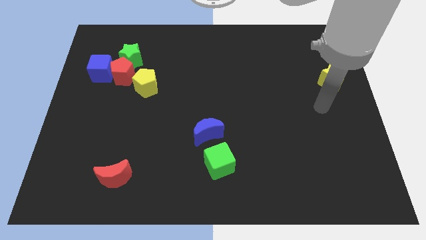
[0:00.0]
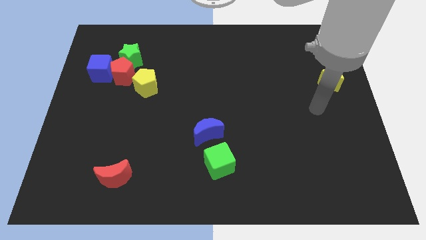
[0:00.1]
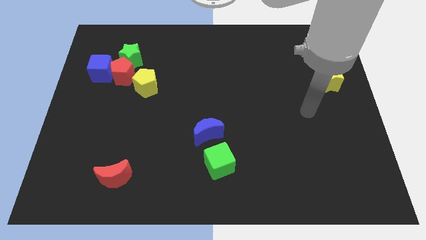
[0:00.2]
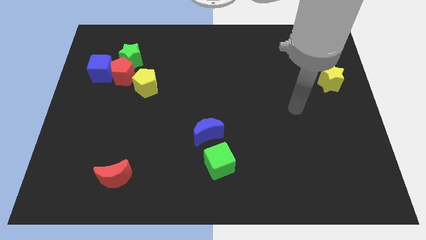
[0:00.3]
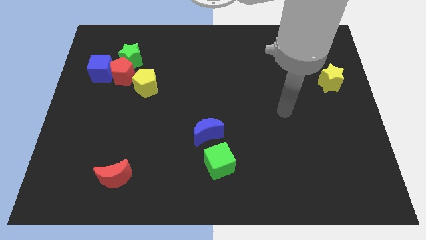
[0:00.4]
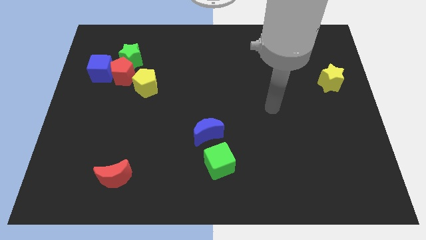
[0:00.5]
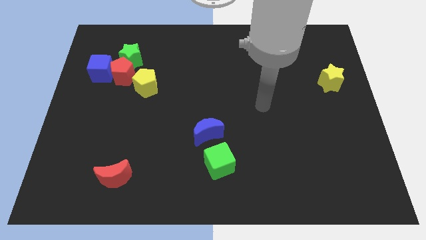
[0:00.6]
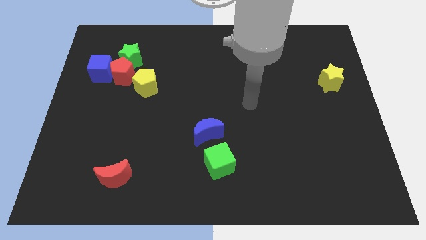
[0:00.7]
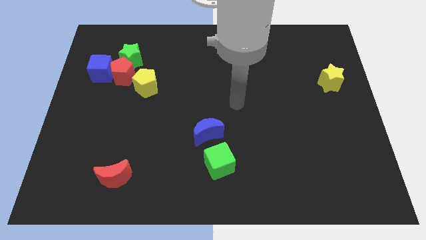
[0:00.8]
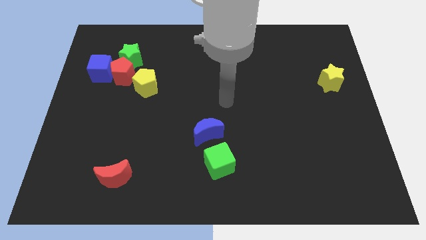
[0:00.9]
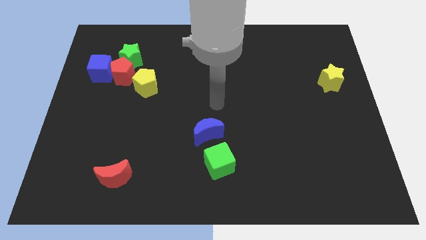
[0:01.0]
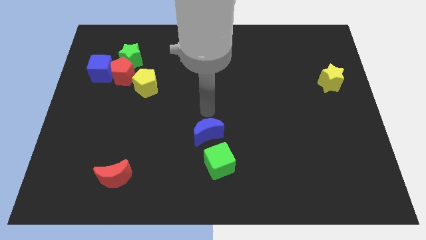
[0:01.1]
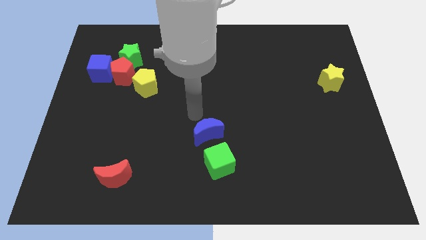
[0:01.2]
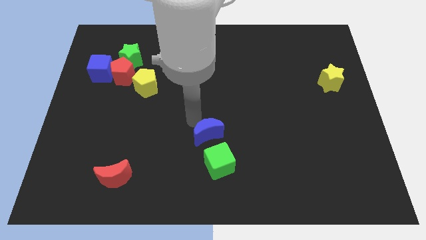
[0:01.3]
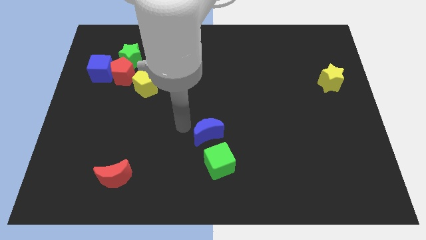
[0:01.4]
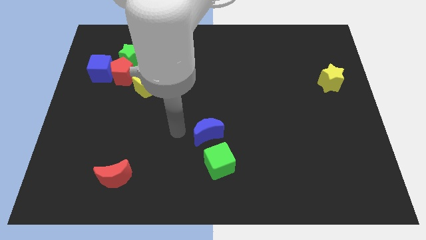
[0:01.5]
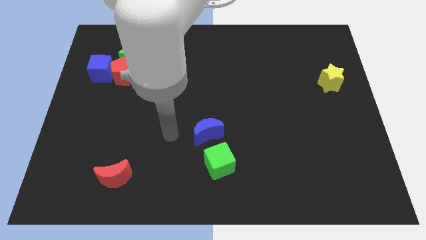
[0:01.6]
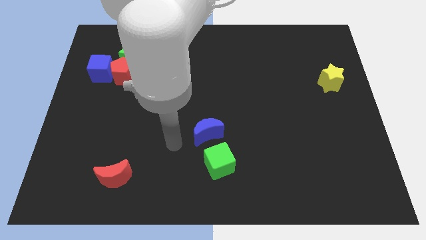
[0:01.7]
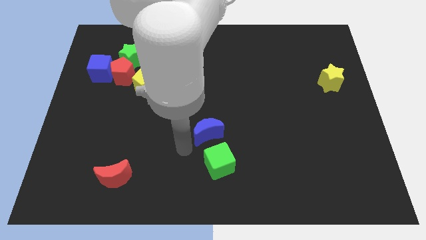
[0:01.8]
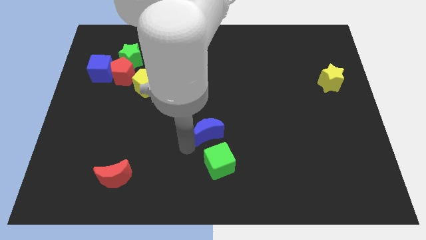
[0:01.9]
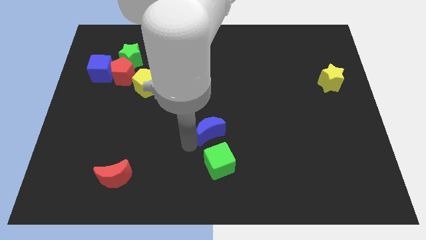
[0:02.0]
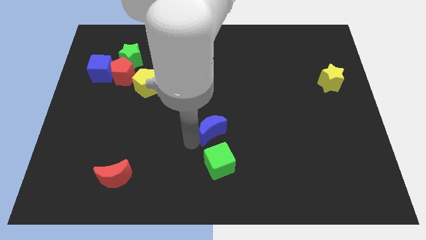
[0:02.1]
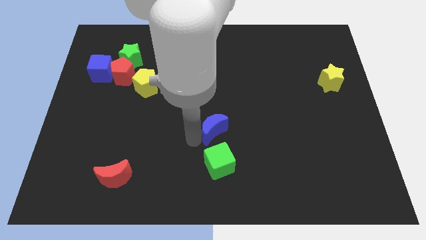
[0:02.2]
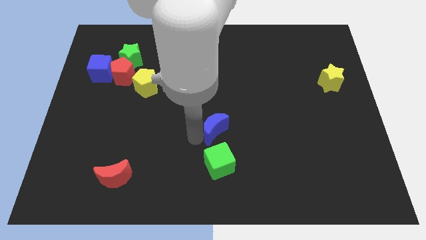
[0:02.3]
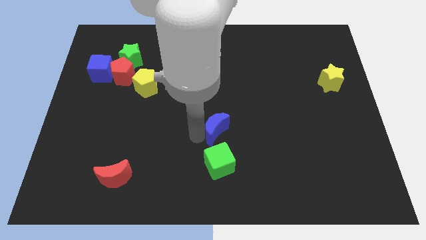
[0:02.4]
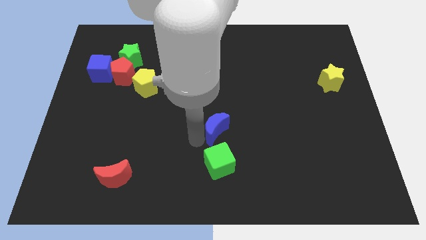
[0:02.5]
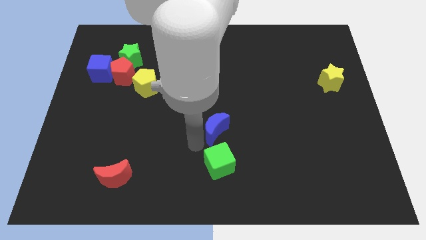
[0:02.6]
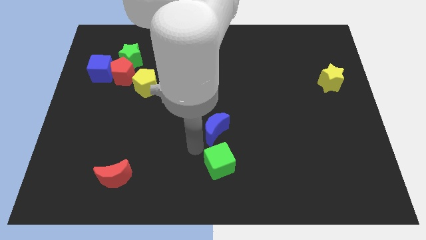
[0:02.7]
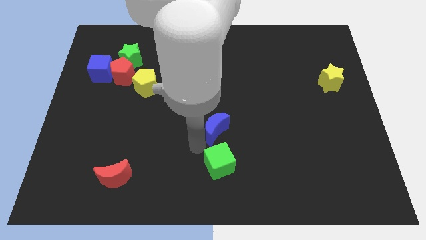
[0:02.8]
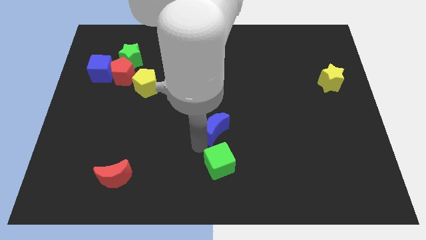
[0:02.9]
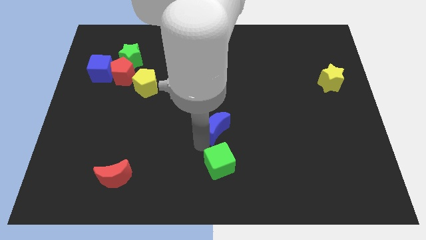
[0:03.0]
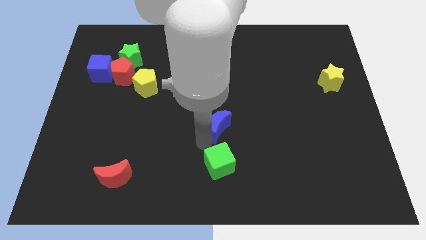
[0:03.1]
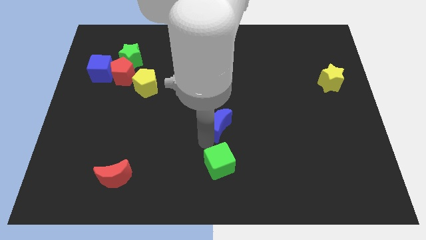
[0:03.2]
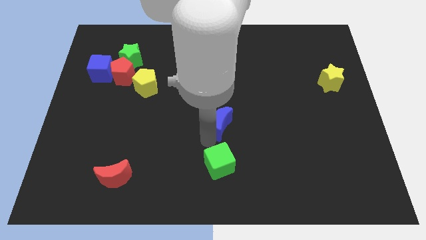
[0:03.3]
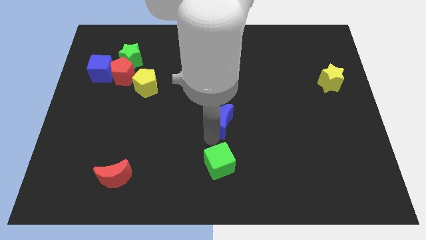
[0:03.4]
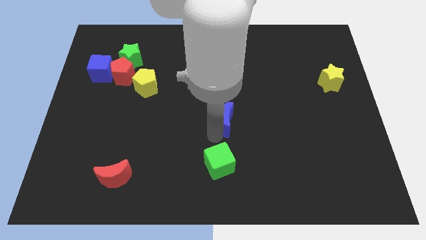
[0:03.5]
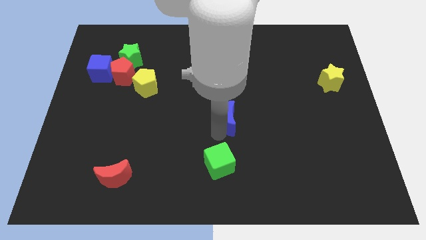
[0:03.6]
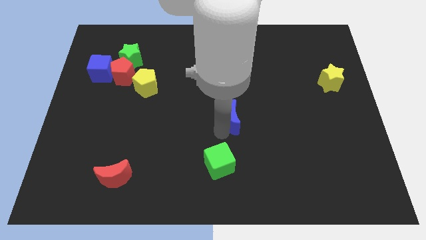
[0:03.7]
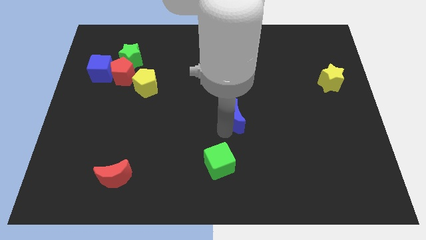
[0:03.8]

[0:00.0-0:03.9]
push the blue moon diagonally upwards and to the right a little bit

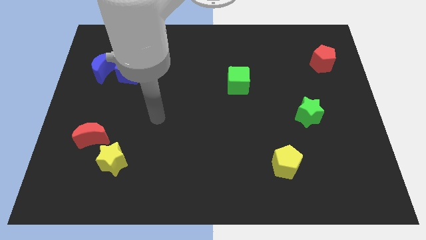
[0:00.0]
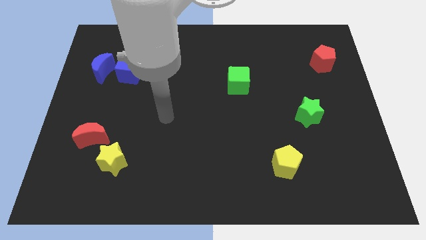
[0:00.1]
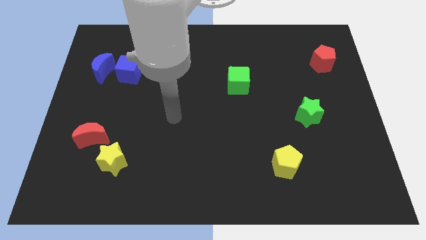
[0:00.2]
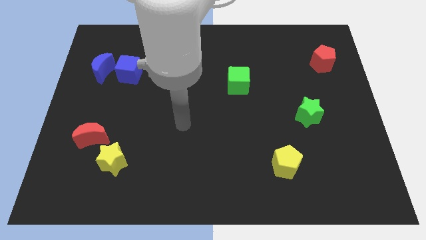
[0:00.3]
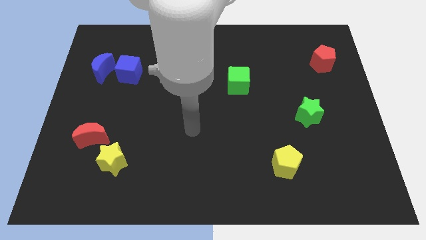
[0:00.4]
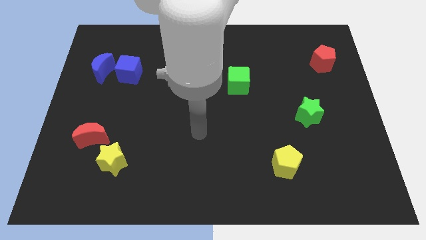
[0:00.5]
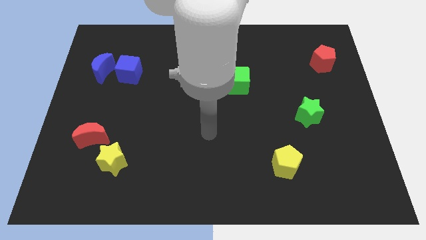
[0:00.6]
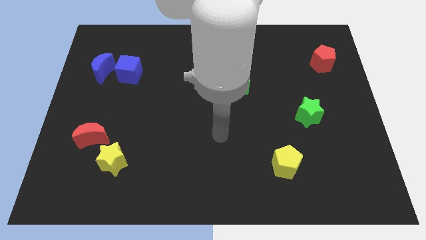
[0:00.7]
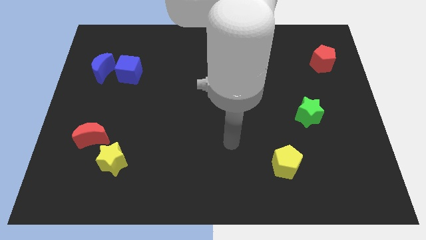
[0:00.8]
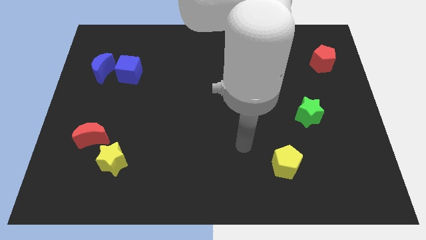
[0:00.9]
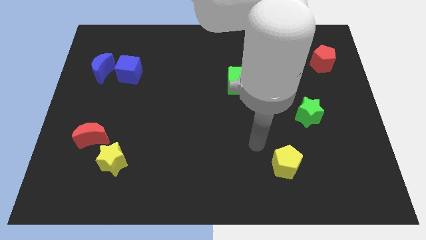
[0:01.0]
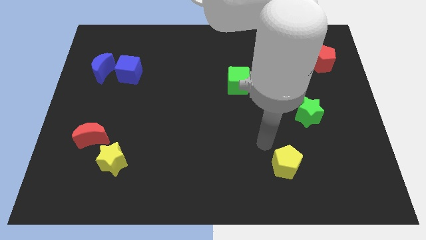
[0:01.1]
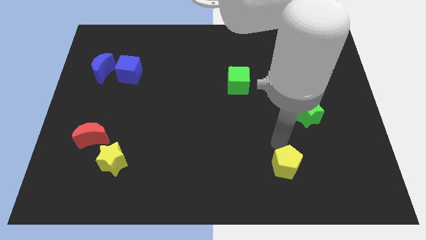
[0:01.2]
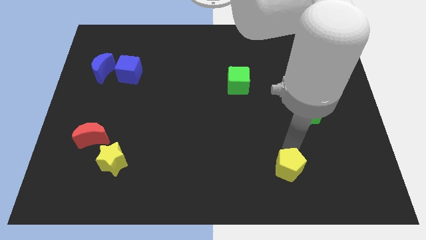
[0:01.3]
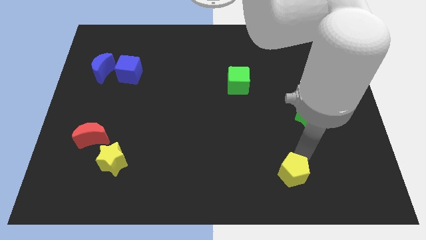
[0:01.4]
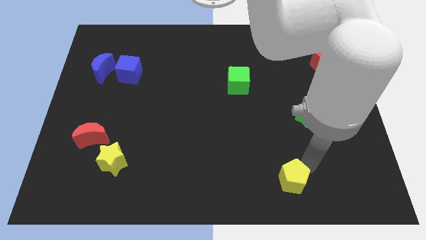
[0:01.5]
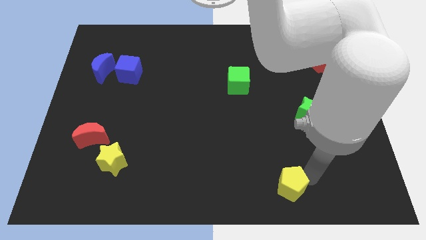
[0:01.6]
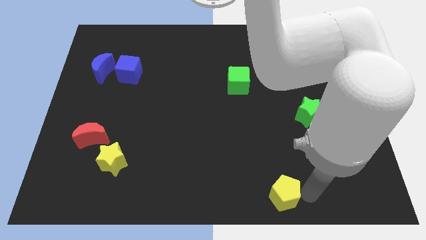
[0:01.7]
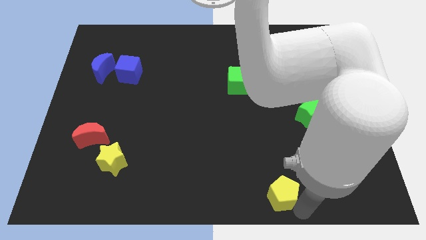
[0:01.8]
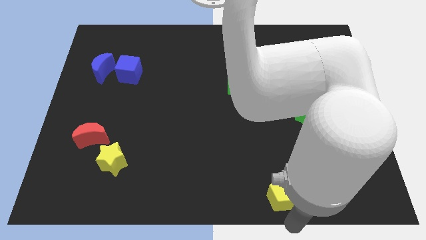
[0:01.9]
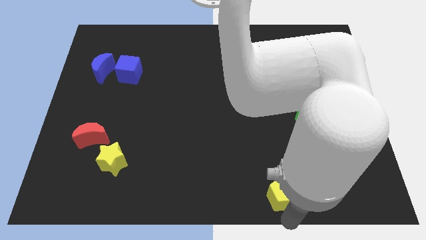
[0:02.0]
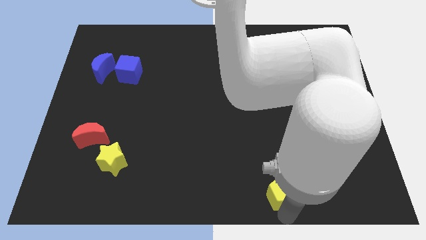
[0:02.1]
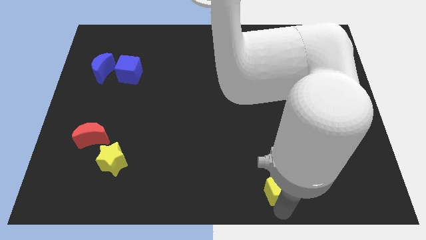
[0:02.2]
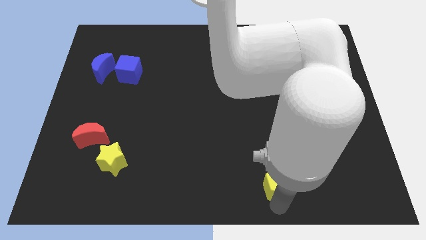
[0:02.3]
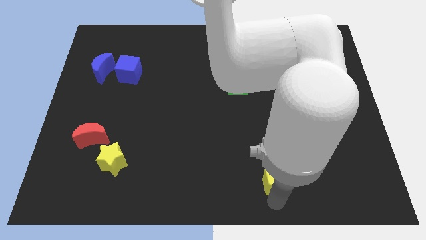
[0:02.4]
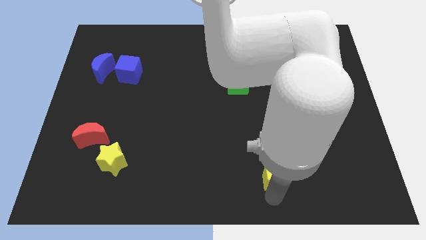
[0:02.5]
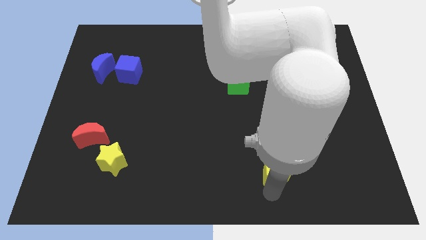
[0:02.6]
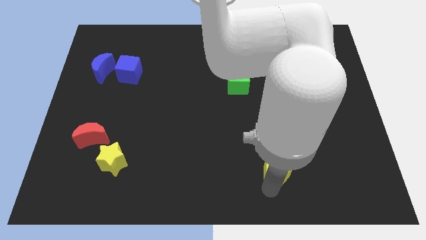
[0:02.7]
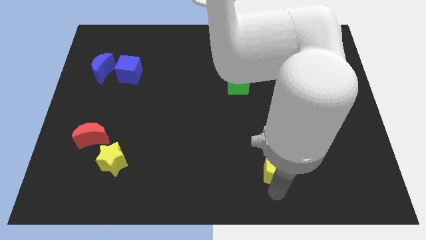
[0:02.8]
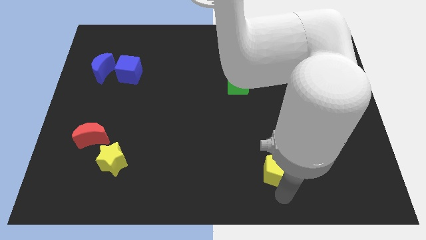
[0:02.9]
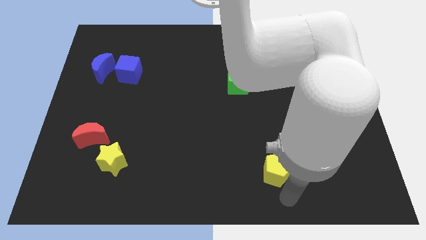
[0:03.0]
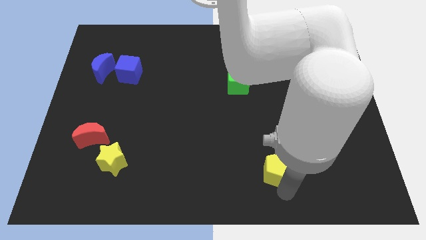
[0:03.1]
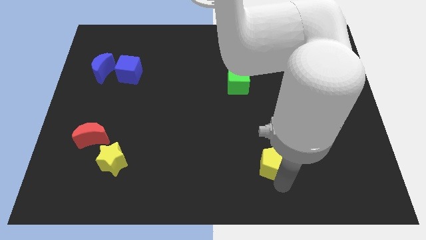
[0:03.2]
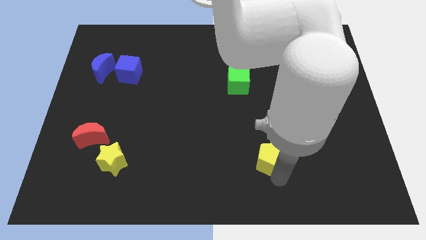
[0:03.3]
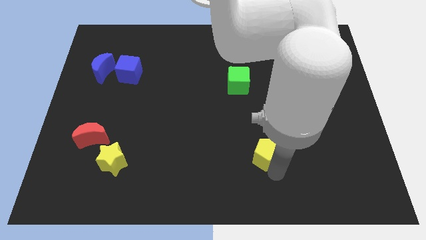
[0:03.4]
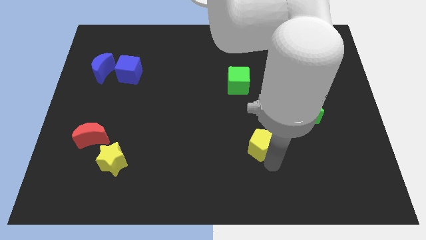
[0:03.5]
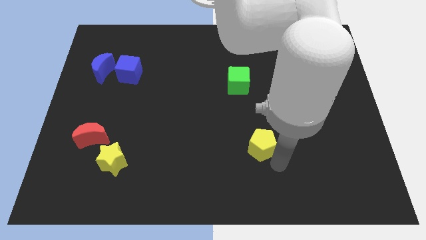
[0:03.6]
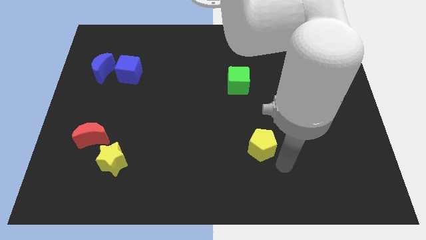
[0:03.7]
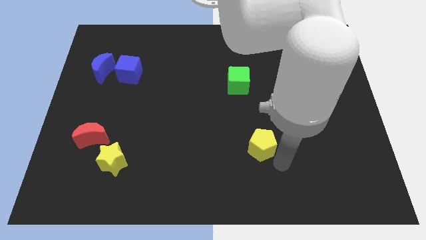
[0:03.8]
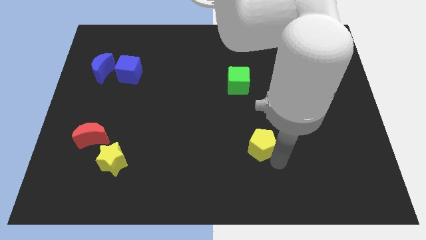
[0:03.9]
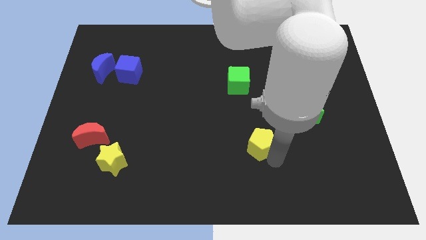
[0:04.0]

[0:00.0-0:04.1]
slide the yellow pentagon diagonally upwards and left a little bit
